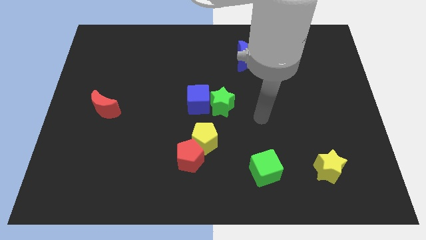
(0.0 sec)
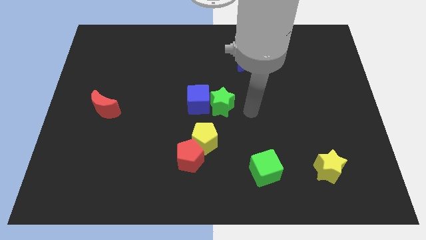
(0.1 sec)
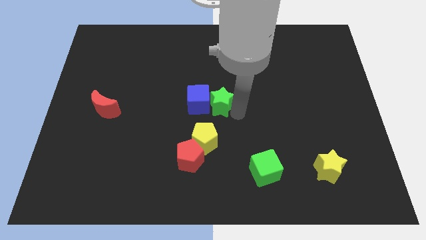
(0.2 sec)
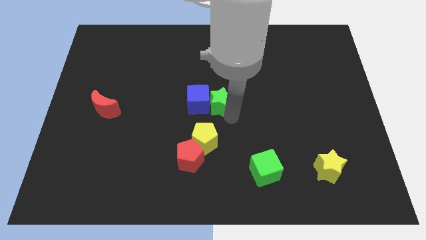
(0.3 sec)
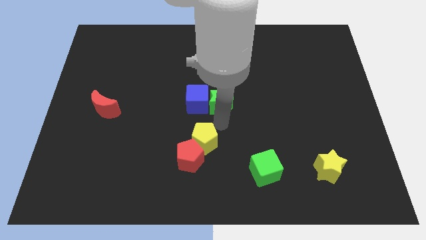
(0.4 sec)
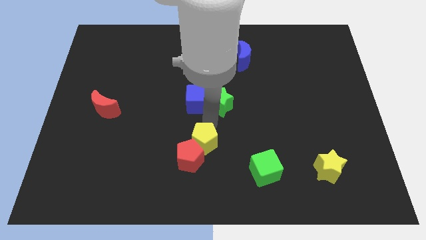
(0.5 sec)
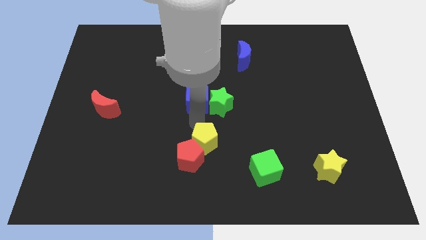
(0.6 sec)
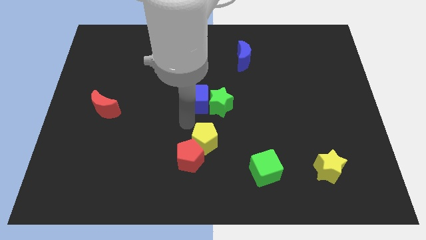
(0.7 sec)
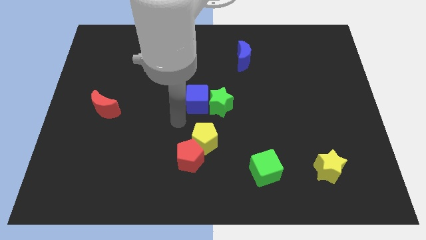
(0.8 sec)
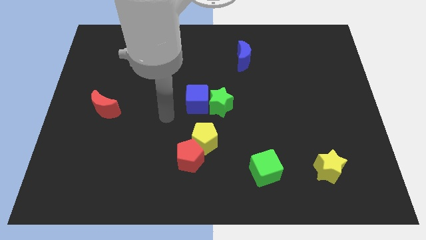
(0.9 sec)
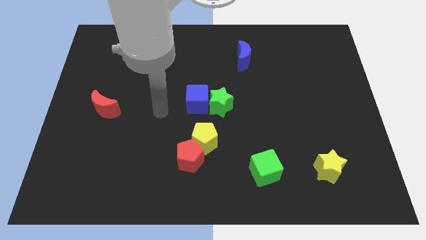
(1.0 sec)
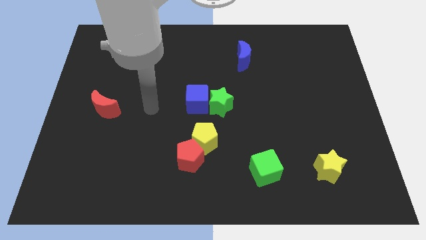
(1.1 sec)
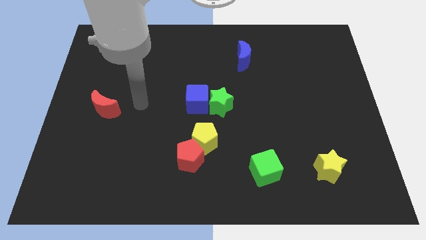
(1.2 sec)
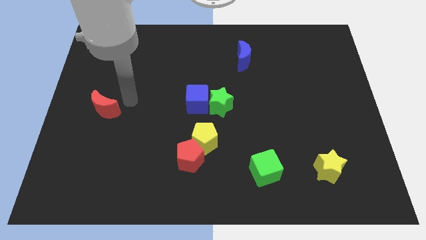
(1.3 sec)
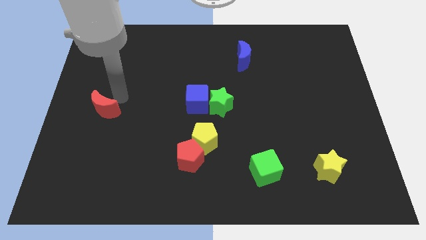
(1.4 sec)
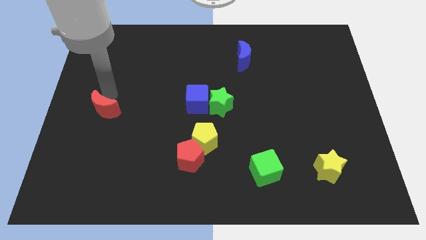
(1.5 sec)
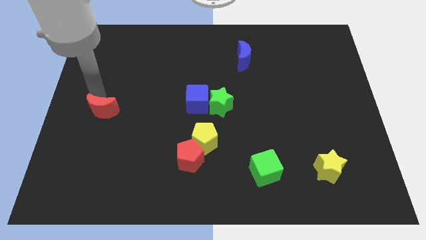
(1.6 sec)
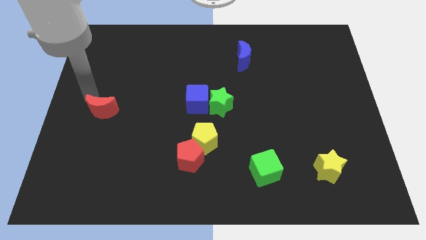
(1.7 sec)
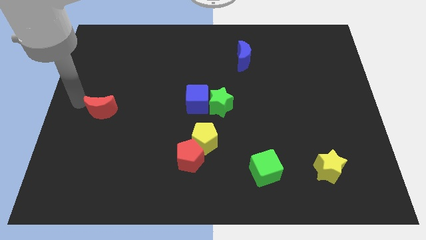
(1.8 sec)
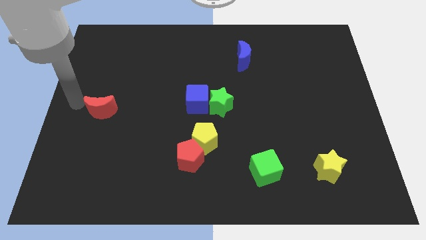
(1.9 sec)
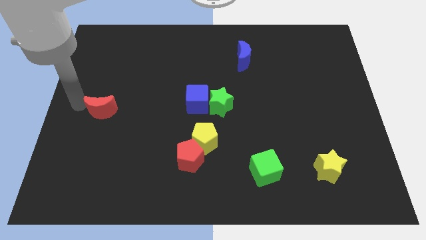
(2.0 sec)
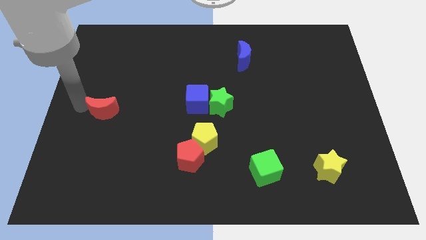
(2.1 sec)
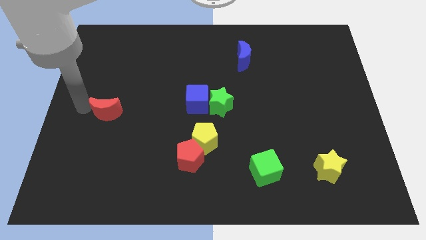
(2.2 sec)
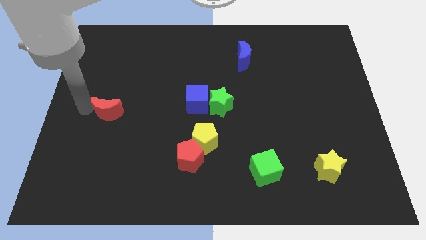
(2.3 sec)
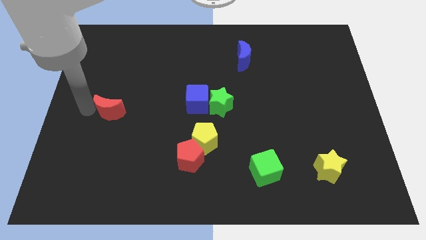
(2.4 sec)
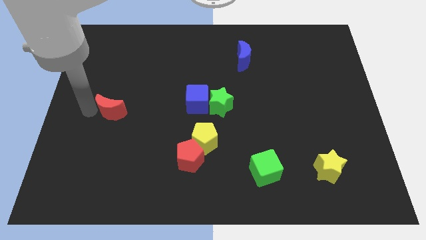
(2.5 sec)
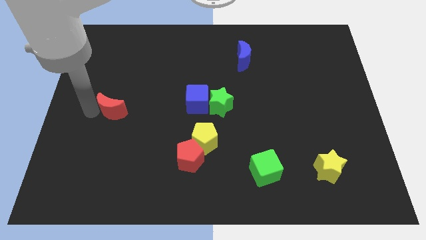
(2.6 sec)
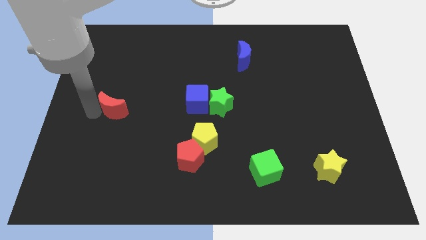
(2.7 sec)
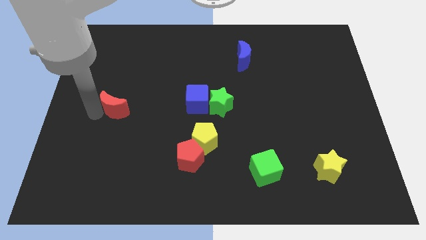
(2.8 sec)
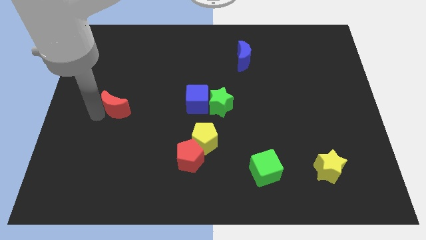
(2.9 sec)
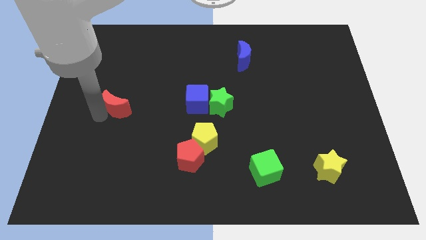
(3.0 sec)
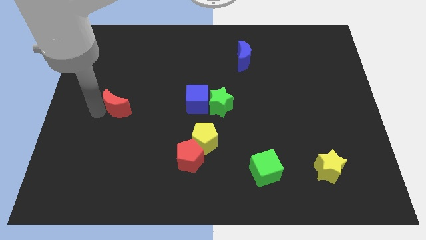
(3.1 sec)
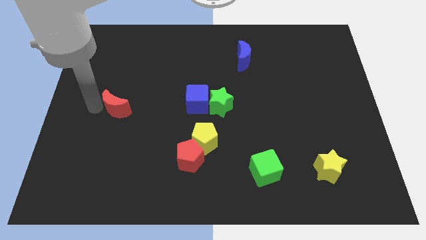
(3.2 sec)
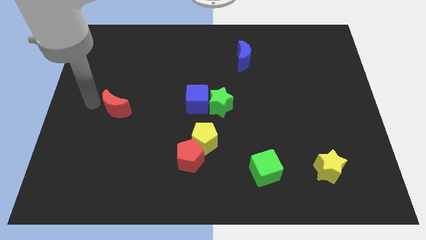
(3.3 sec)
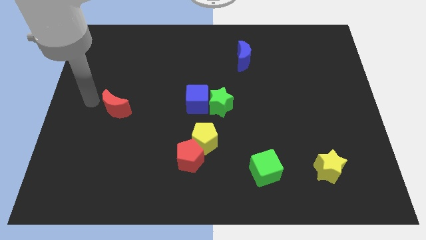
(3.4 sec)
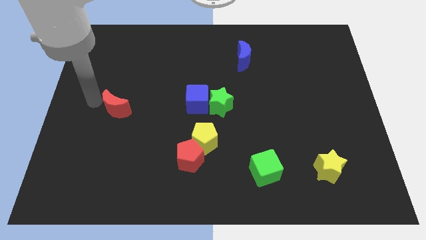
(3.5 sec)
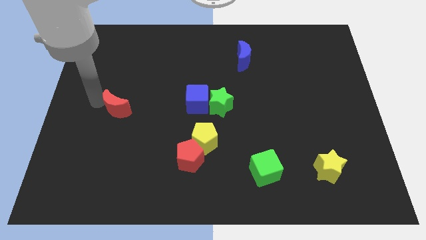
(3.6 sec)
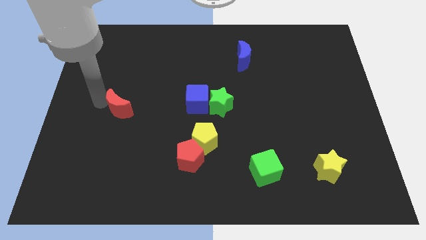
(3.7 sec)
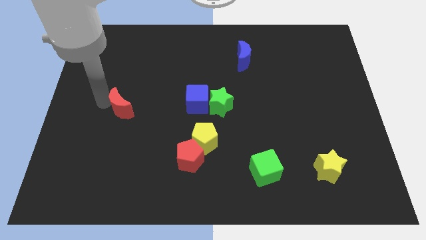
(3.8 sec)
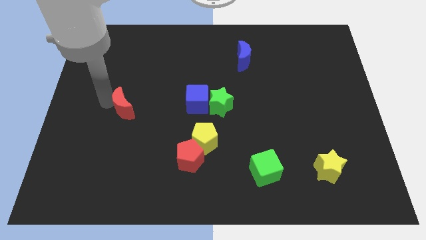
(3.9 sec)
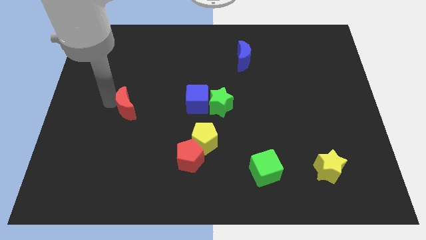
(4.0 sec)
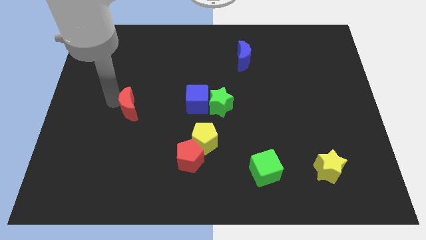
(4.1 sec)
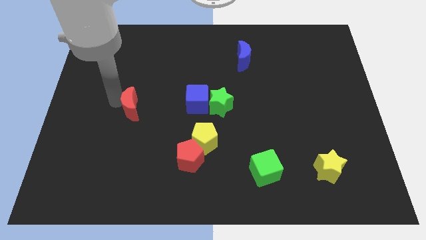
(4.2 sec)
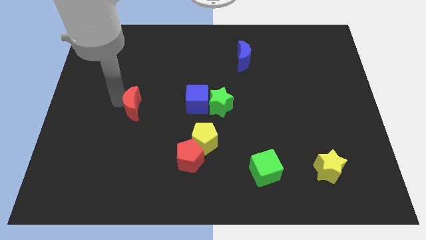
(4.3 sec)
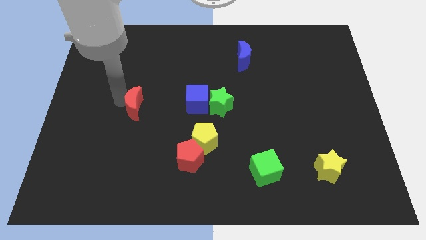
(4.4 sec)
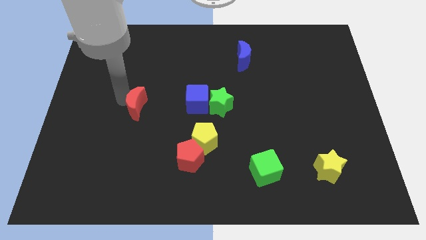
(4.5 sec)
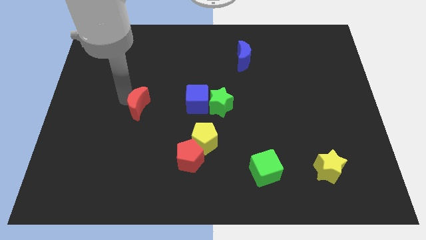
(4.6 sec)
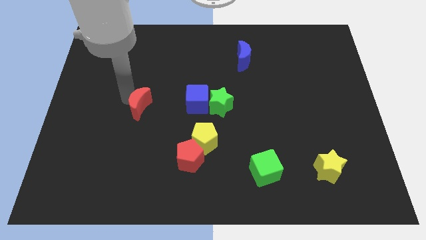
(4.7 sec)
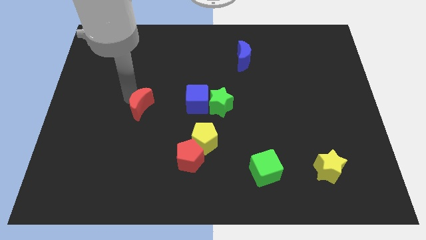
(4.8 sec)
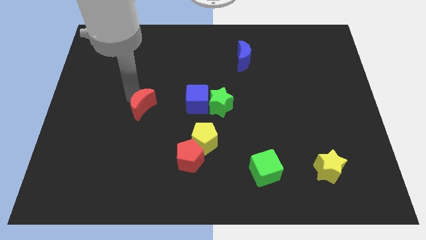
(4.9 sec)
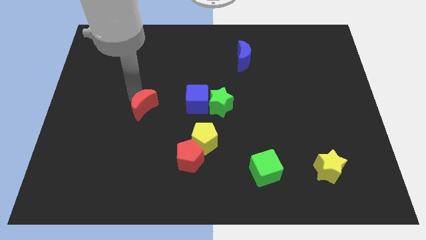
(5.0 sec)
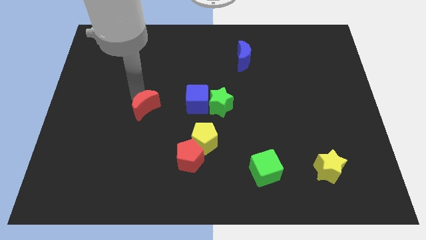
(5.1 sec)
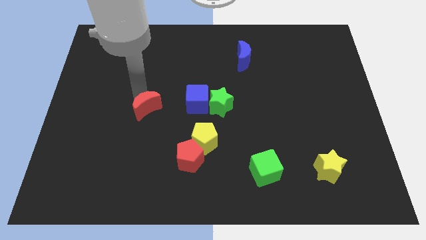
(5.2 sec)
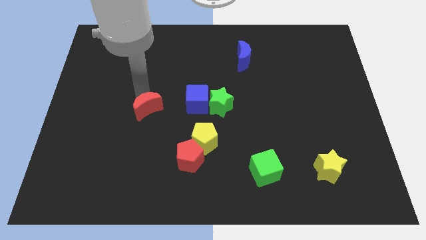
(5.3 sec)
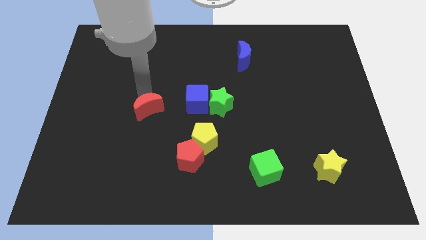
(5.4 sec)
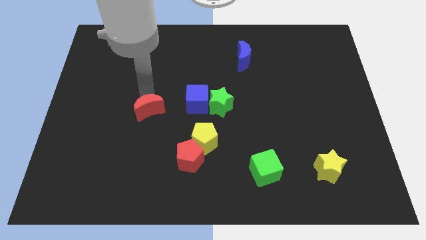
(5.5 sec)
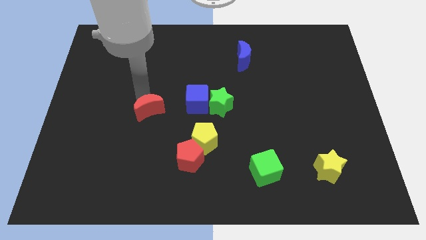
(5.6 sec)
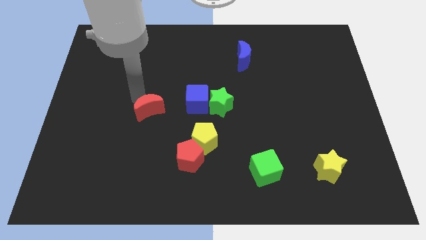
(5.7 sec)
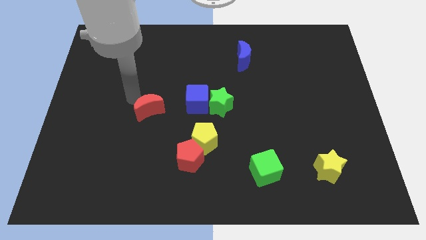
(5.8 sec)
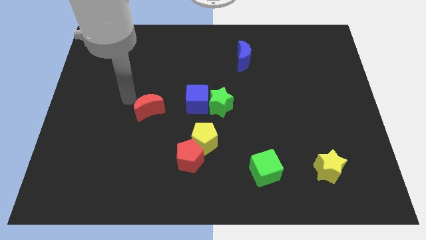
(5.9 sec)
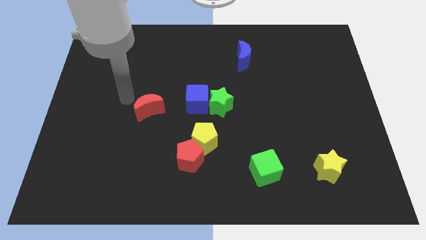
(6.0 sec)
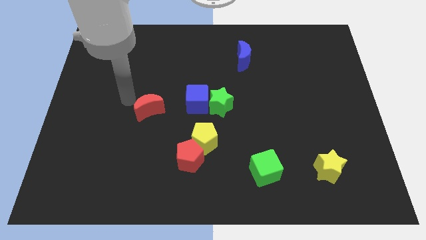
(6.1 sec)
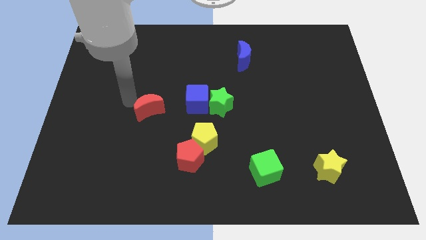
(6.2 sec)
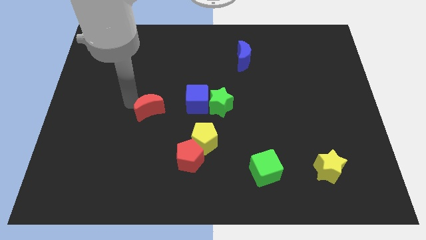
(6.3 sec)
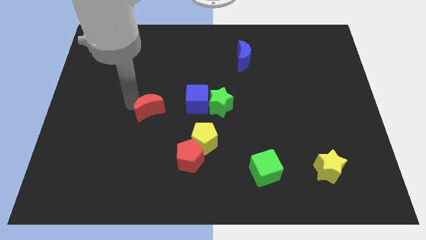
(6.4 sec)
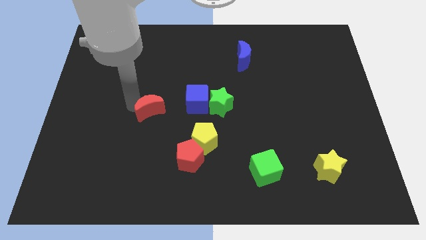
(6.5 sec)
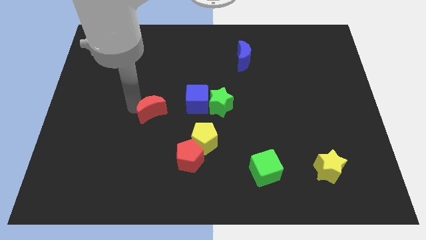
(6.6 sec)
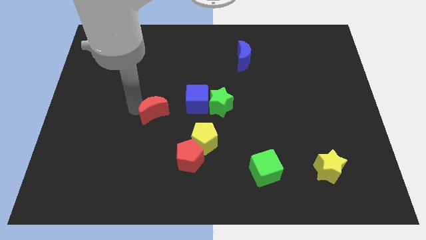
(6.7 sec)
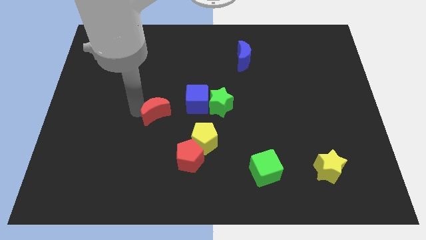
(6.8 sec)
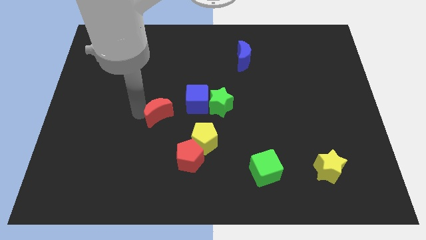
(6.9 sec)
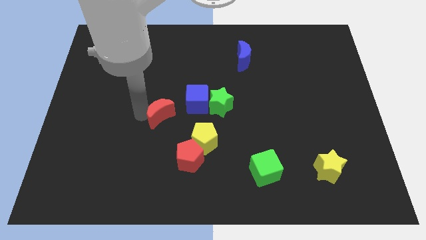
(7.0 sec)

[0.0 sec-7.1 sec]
put the red moon to the top left side of the yellow pentagon
